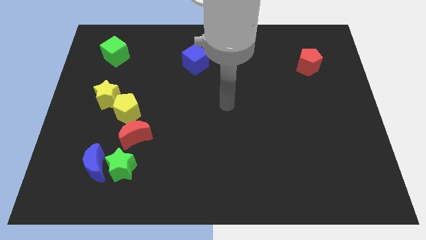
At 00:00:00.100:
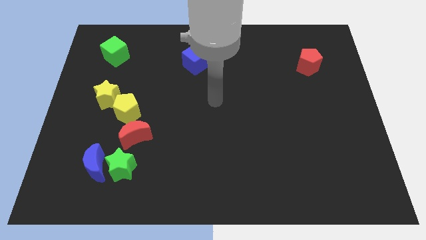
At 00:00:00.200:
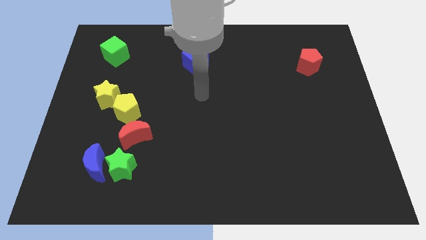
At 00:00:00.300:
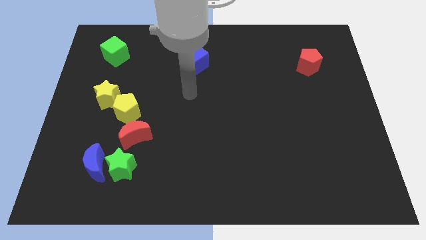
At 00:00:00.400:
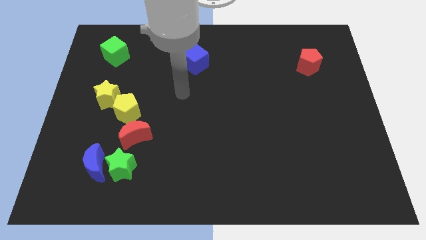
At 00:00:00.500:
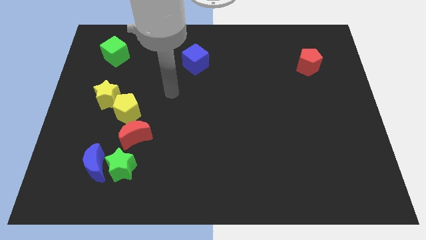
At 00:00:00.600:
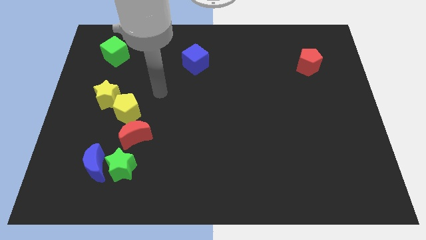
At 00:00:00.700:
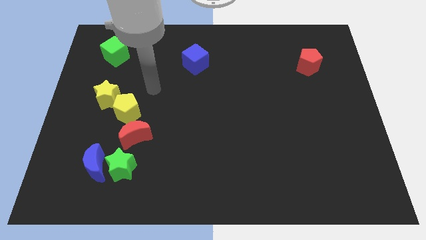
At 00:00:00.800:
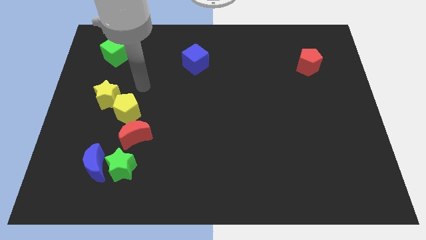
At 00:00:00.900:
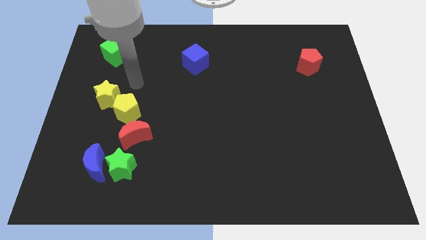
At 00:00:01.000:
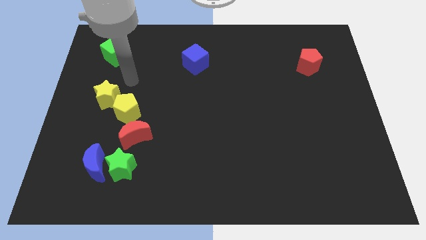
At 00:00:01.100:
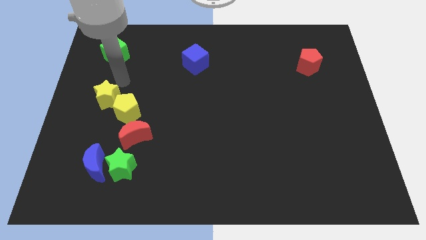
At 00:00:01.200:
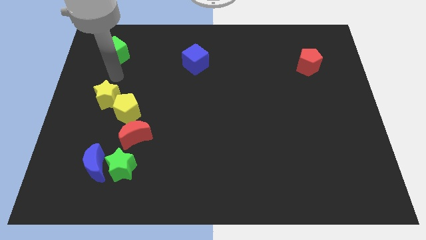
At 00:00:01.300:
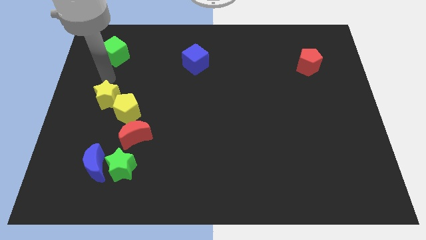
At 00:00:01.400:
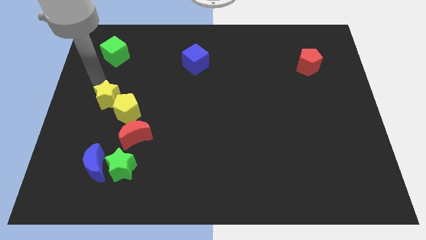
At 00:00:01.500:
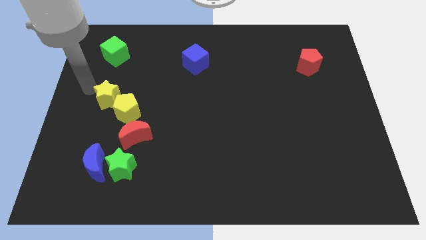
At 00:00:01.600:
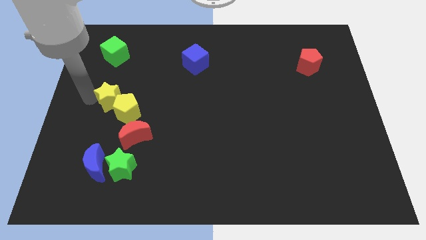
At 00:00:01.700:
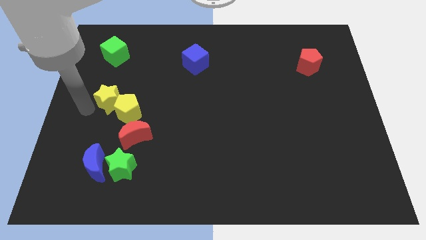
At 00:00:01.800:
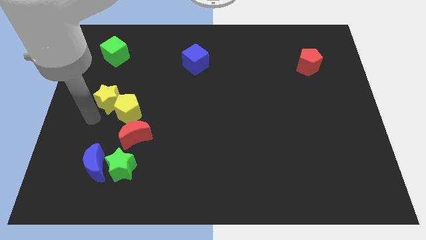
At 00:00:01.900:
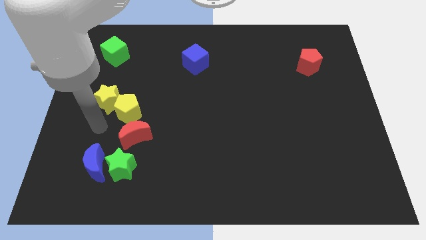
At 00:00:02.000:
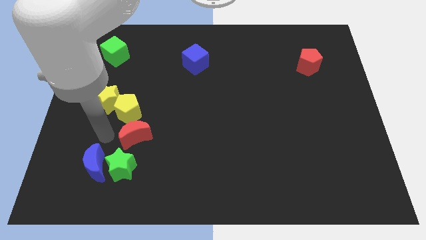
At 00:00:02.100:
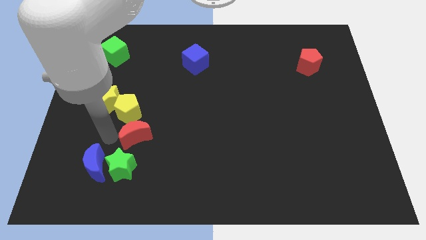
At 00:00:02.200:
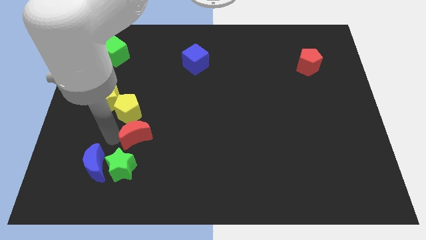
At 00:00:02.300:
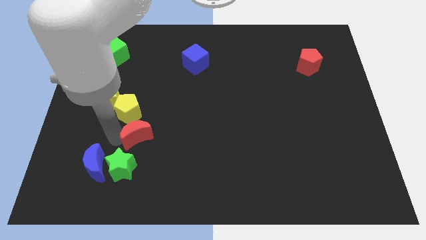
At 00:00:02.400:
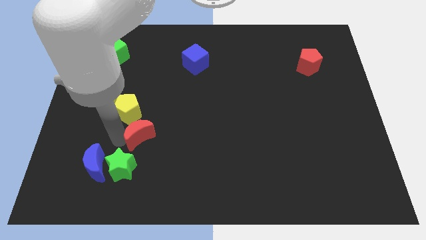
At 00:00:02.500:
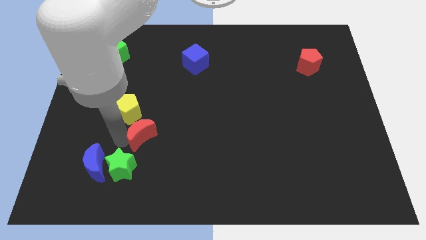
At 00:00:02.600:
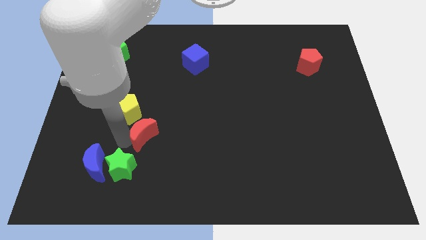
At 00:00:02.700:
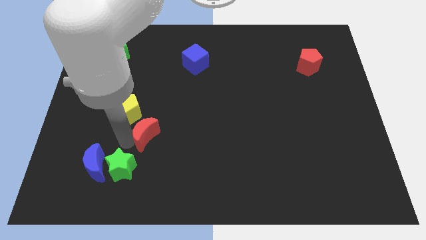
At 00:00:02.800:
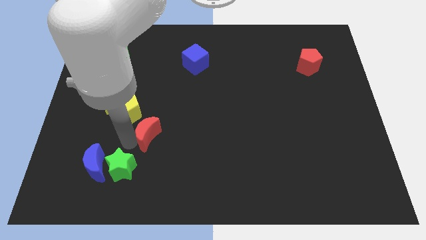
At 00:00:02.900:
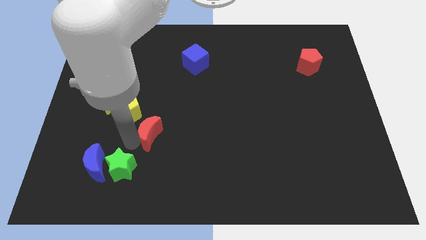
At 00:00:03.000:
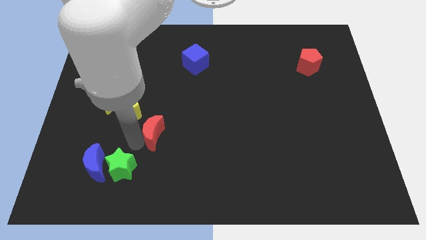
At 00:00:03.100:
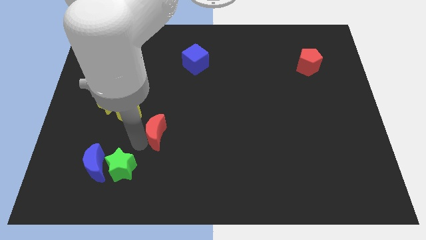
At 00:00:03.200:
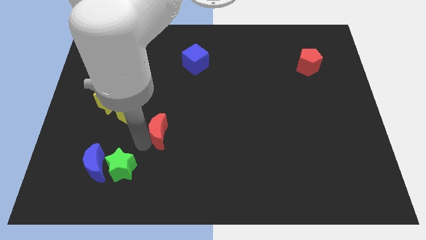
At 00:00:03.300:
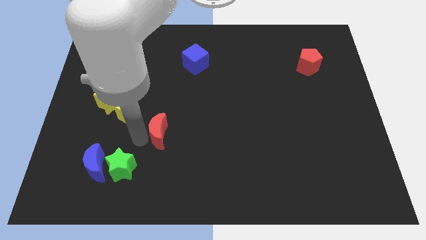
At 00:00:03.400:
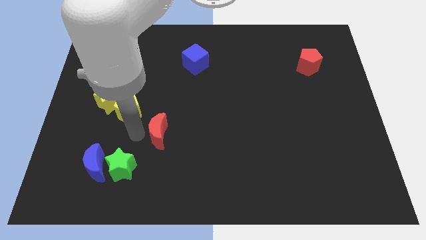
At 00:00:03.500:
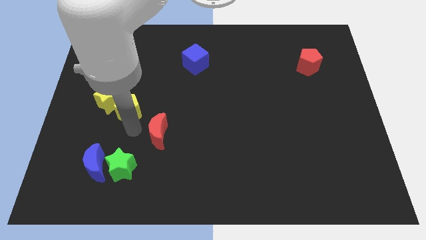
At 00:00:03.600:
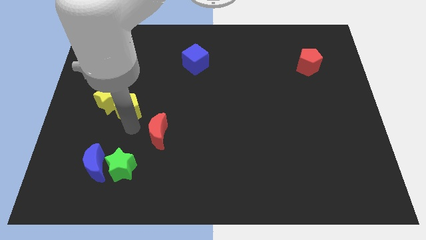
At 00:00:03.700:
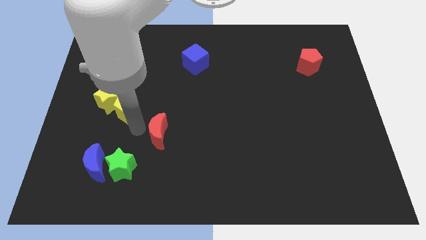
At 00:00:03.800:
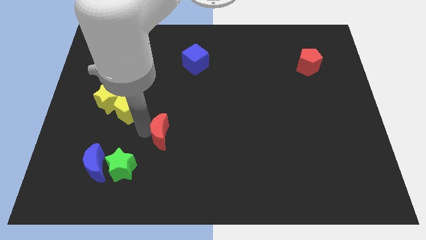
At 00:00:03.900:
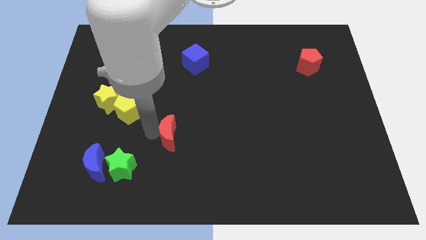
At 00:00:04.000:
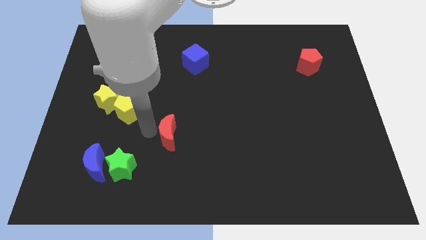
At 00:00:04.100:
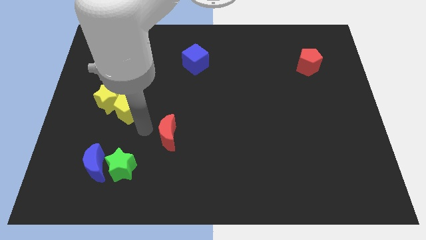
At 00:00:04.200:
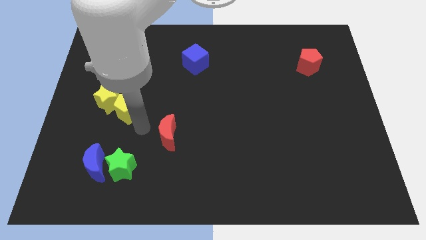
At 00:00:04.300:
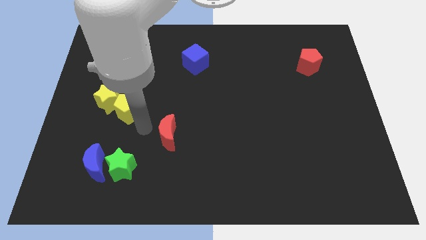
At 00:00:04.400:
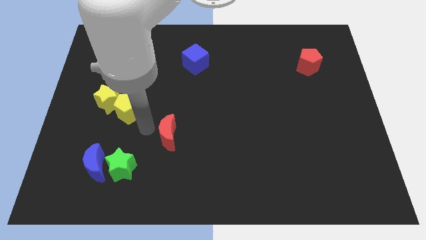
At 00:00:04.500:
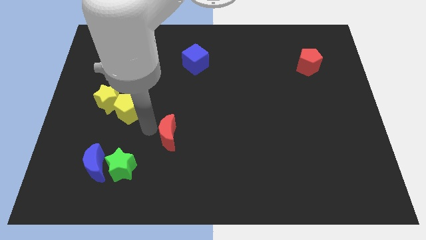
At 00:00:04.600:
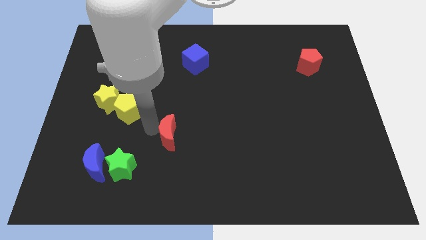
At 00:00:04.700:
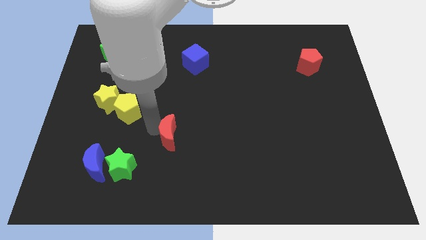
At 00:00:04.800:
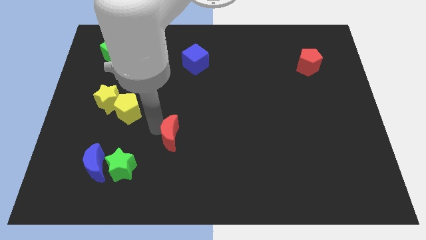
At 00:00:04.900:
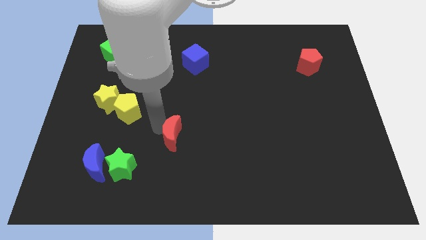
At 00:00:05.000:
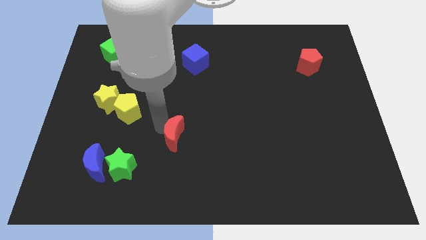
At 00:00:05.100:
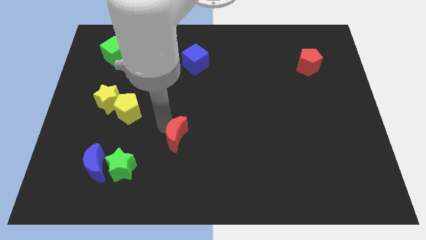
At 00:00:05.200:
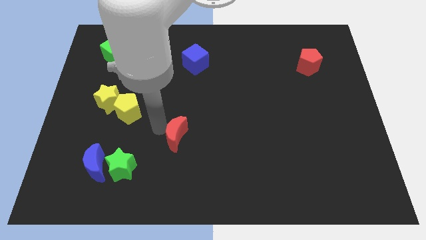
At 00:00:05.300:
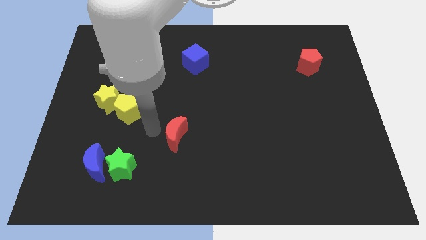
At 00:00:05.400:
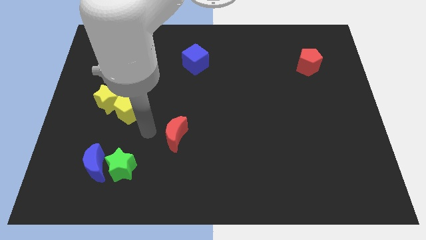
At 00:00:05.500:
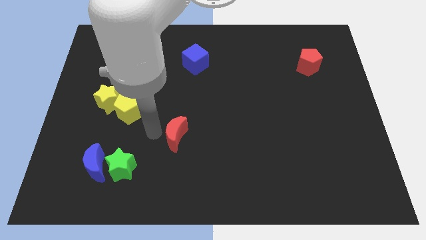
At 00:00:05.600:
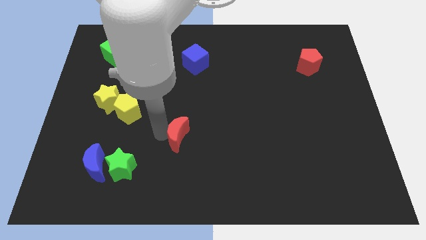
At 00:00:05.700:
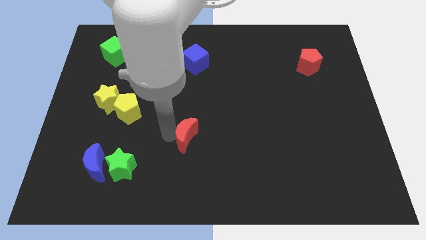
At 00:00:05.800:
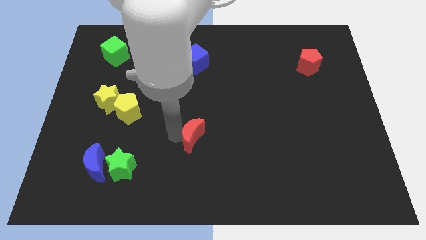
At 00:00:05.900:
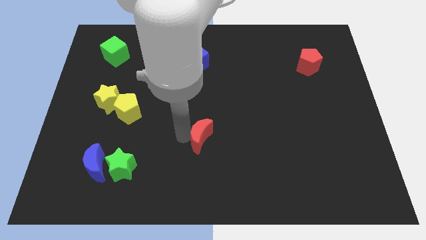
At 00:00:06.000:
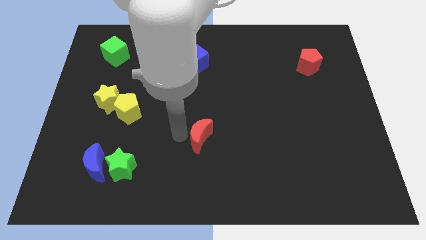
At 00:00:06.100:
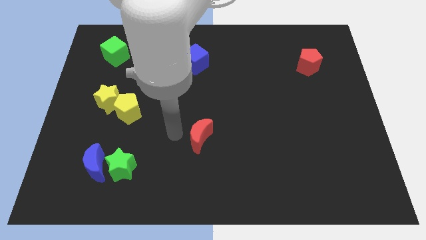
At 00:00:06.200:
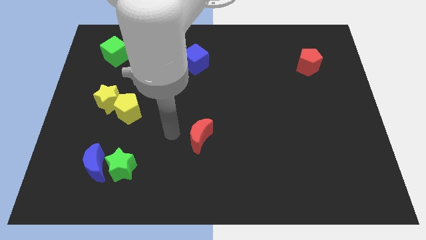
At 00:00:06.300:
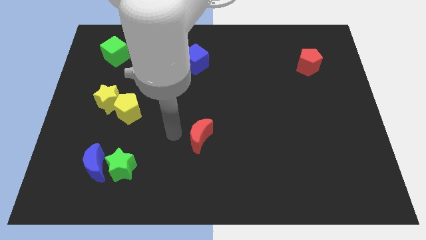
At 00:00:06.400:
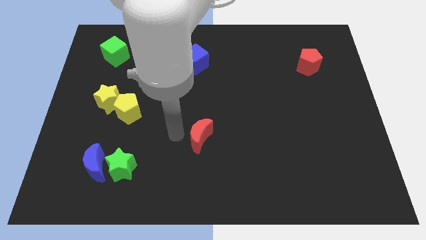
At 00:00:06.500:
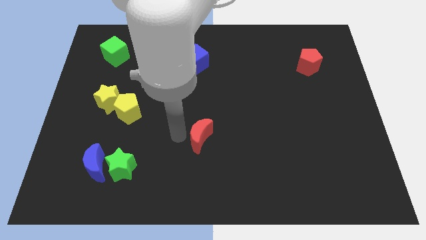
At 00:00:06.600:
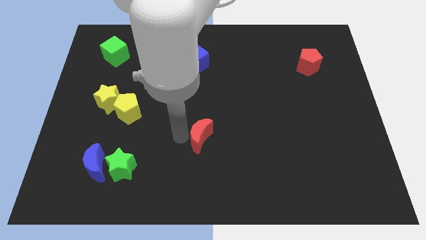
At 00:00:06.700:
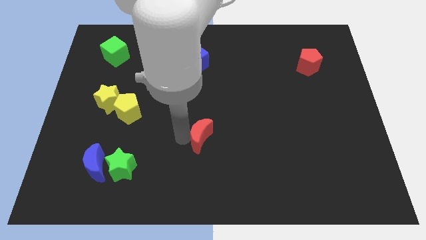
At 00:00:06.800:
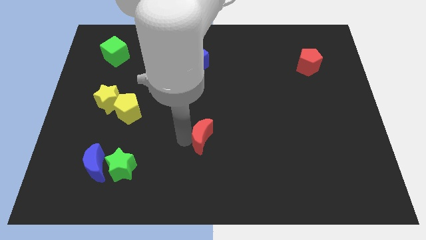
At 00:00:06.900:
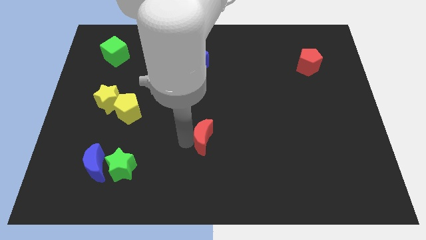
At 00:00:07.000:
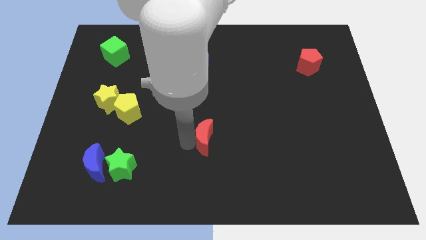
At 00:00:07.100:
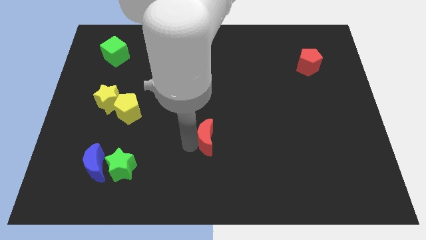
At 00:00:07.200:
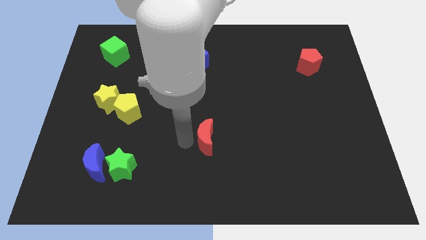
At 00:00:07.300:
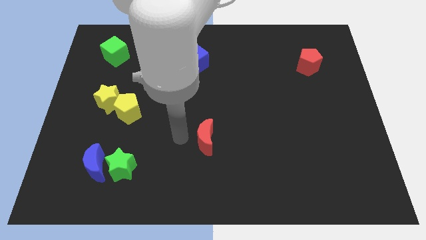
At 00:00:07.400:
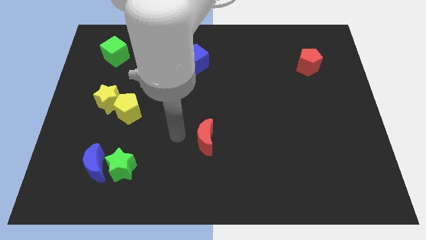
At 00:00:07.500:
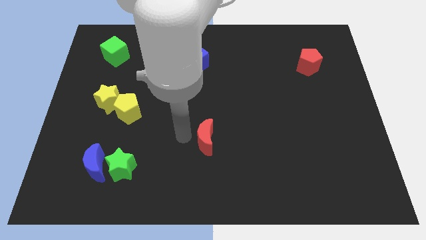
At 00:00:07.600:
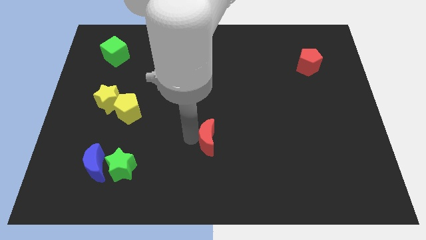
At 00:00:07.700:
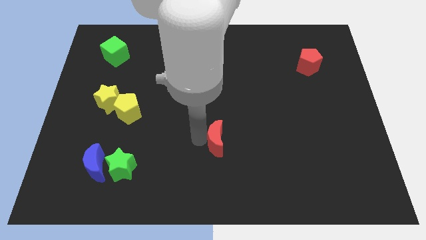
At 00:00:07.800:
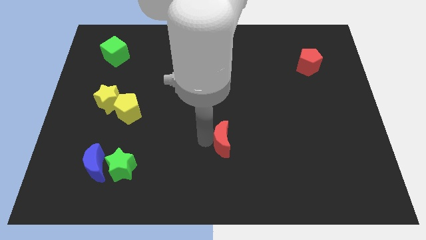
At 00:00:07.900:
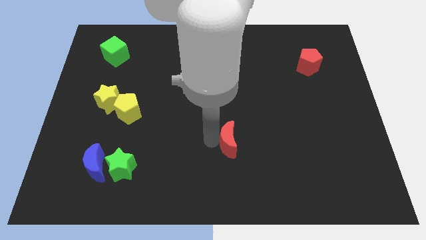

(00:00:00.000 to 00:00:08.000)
move the red moon to the right
